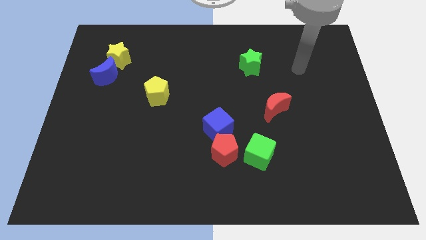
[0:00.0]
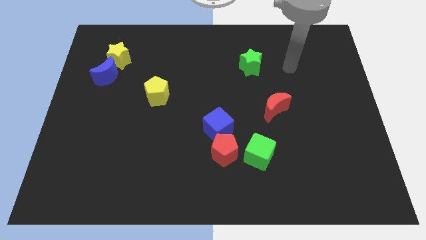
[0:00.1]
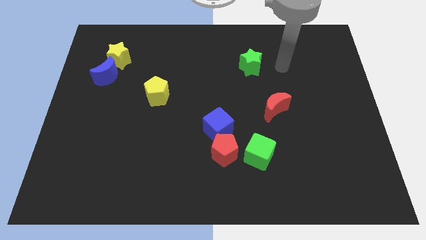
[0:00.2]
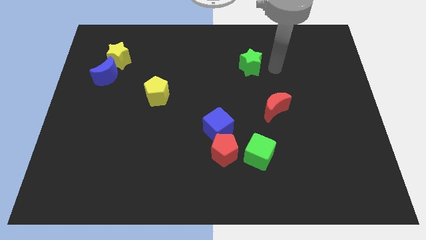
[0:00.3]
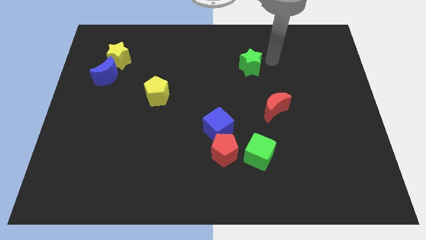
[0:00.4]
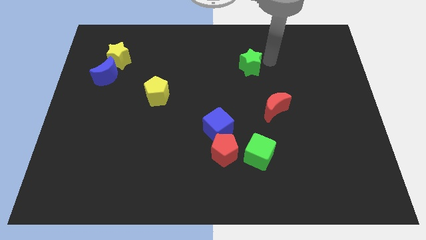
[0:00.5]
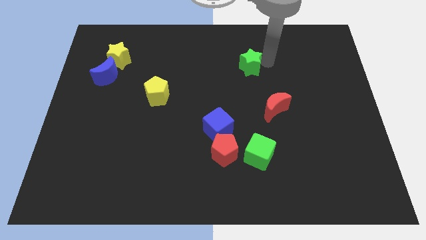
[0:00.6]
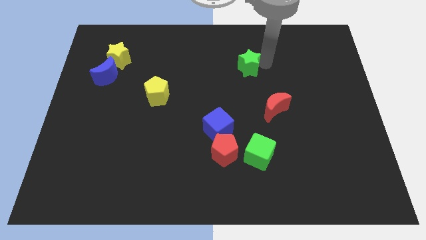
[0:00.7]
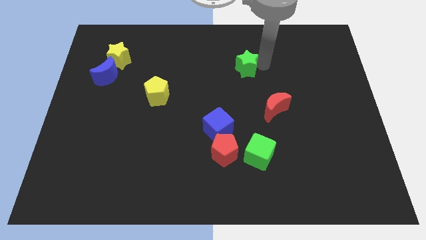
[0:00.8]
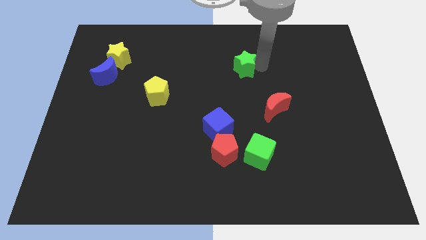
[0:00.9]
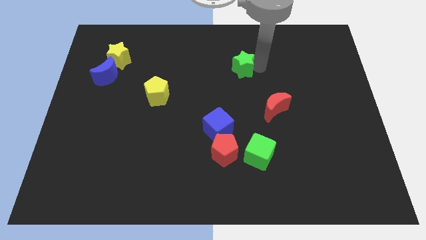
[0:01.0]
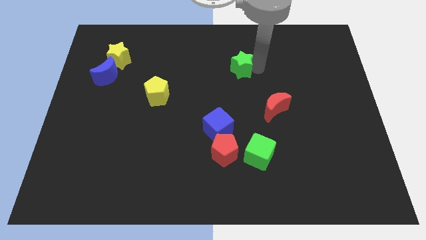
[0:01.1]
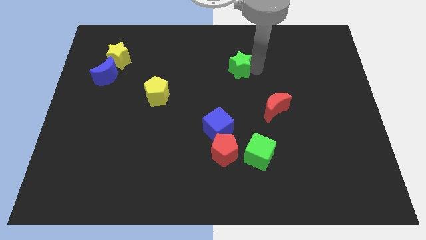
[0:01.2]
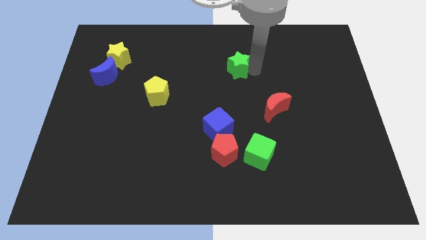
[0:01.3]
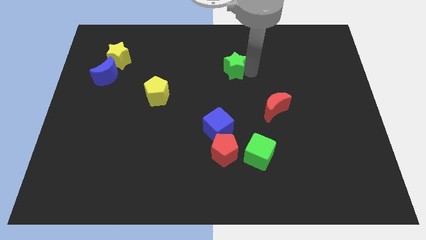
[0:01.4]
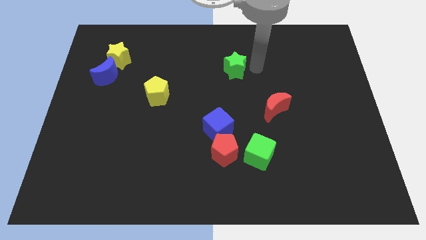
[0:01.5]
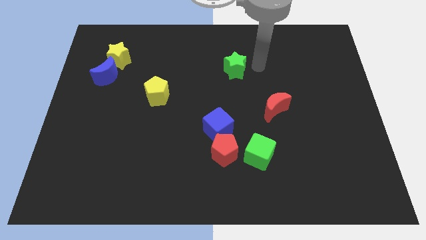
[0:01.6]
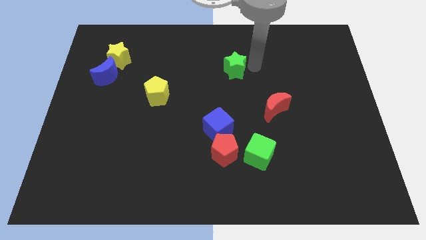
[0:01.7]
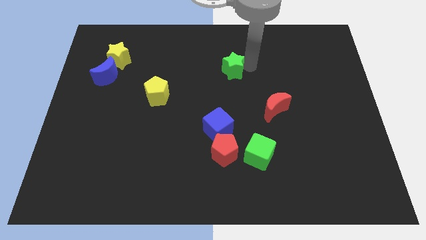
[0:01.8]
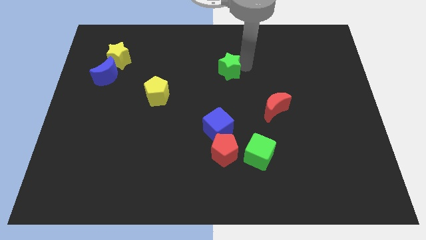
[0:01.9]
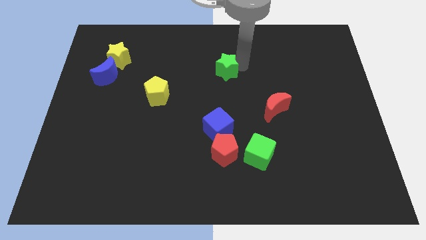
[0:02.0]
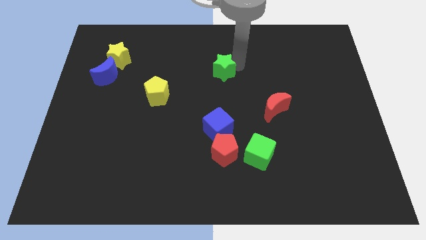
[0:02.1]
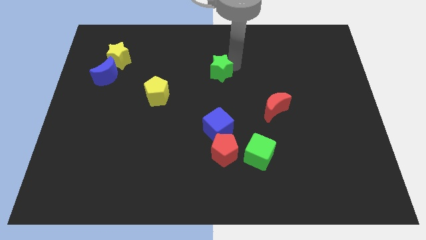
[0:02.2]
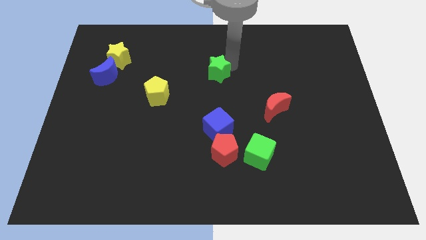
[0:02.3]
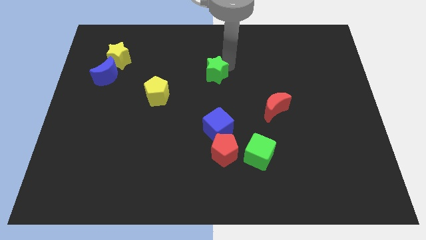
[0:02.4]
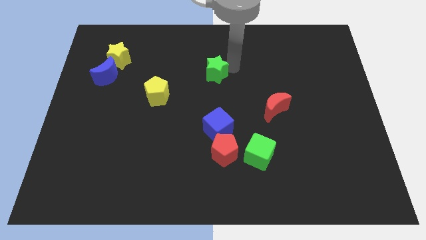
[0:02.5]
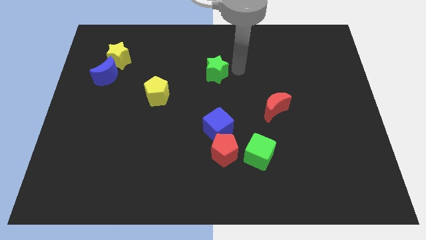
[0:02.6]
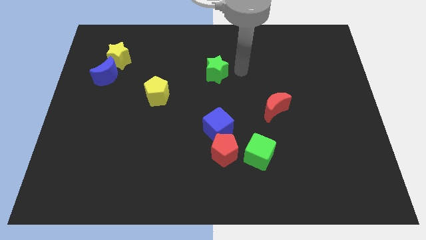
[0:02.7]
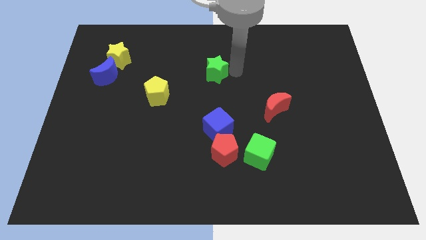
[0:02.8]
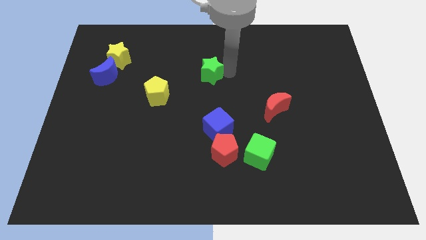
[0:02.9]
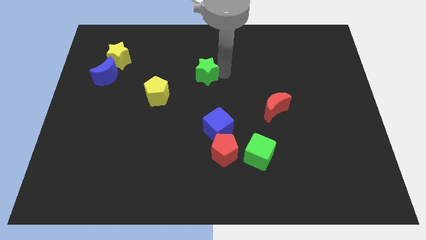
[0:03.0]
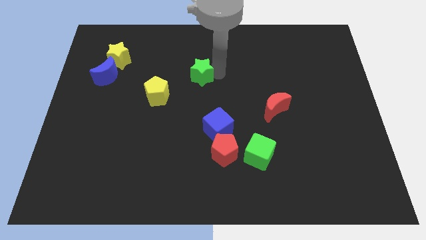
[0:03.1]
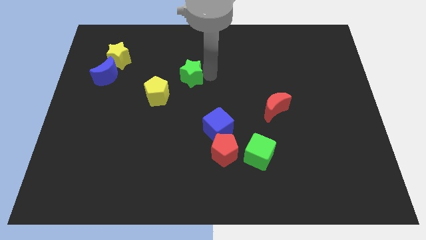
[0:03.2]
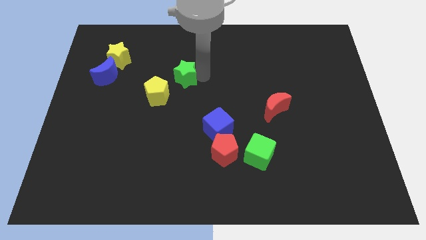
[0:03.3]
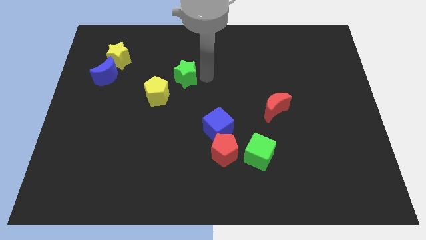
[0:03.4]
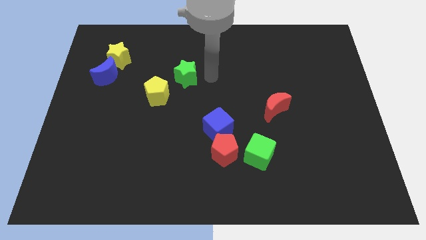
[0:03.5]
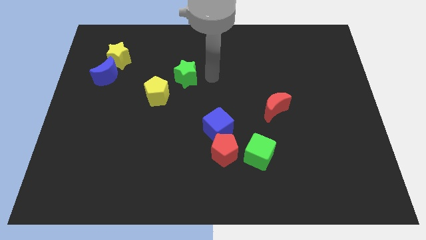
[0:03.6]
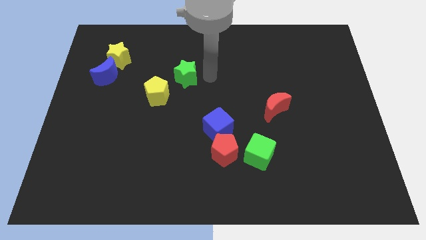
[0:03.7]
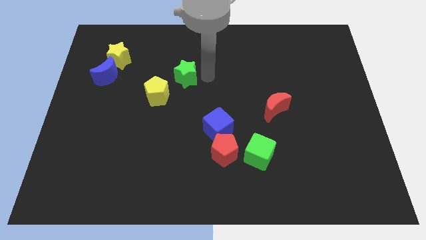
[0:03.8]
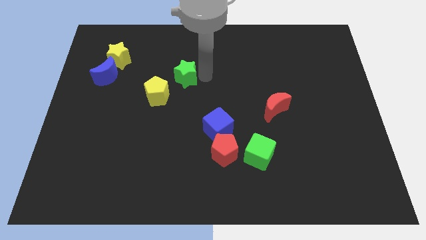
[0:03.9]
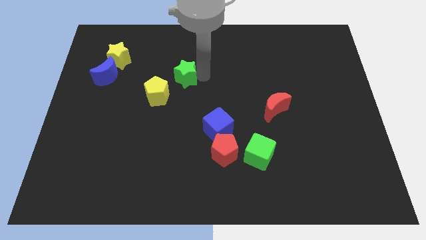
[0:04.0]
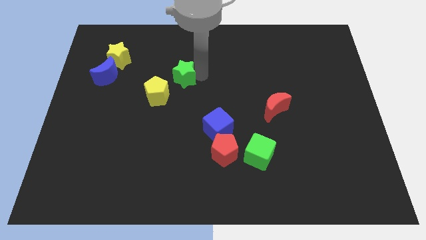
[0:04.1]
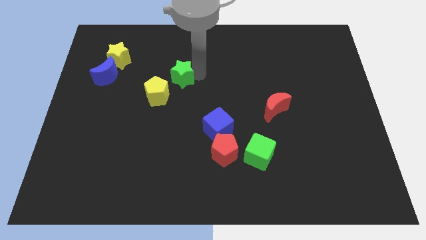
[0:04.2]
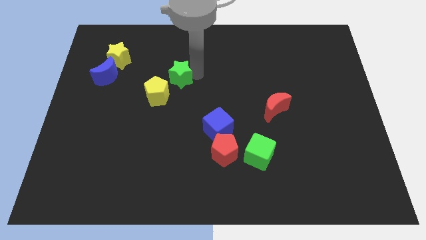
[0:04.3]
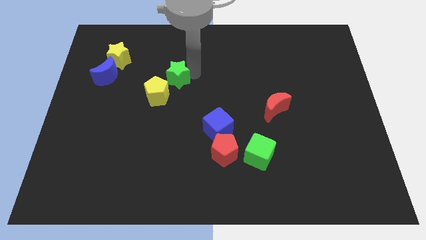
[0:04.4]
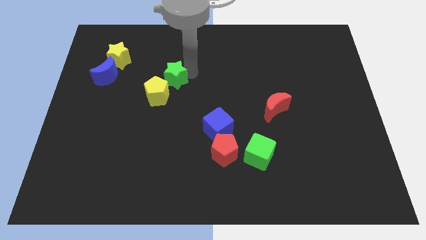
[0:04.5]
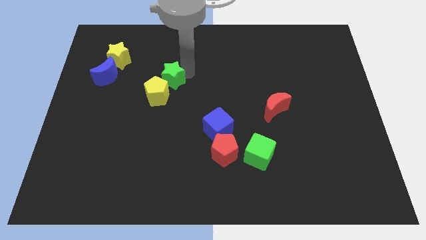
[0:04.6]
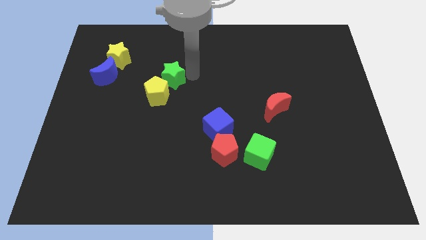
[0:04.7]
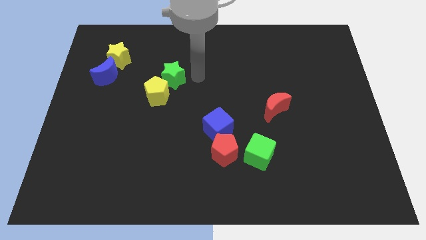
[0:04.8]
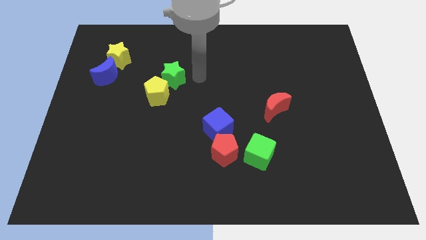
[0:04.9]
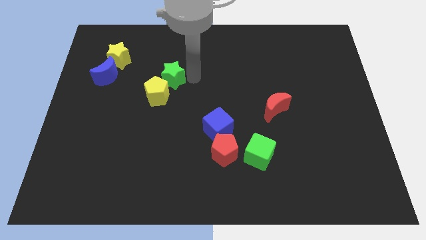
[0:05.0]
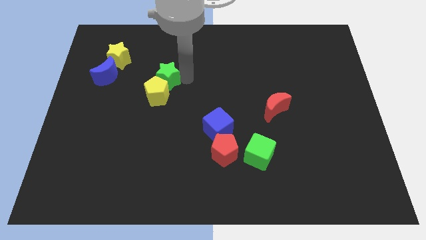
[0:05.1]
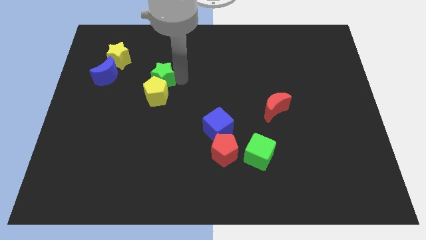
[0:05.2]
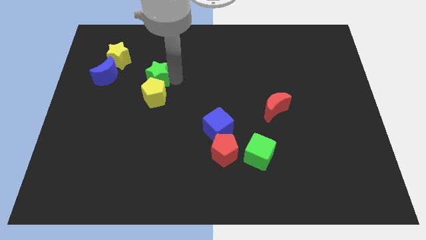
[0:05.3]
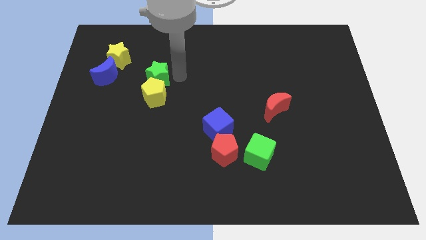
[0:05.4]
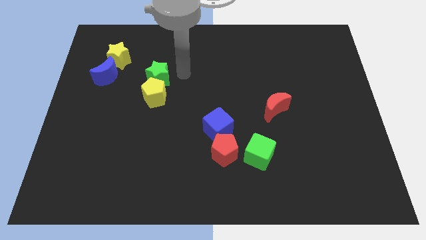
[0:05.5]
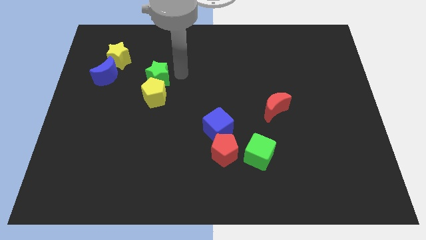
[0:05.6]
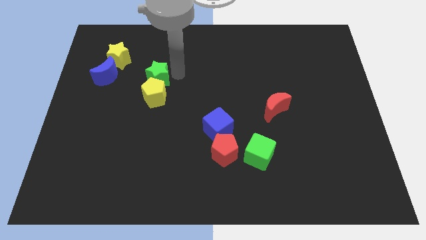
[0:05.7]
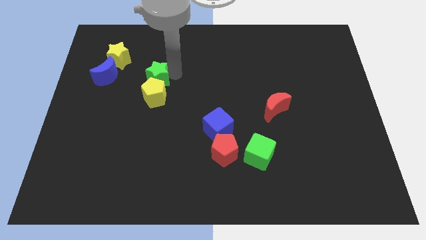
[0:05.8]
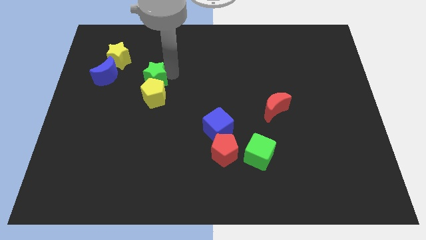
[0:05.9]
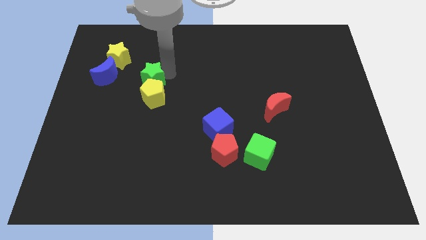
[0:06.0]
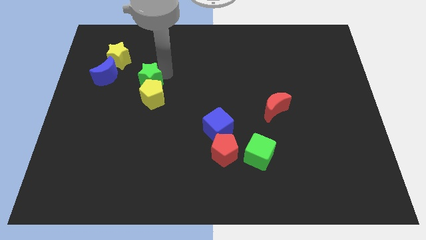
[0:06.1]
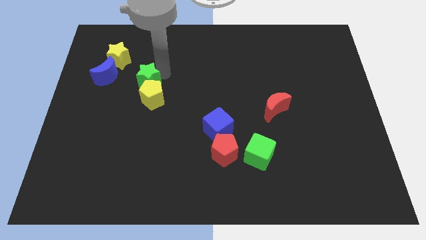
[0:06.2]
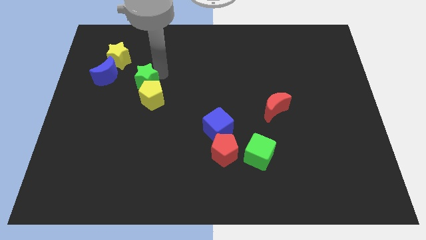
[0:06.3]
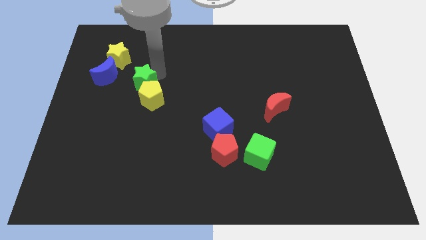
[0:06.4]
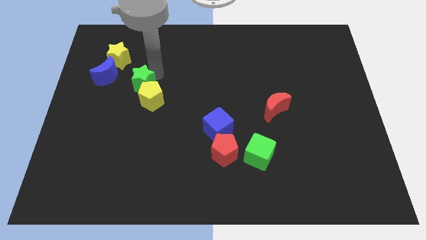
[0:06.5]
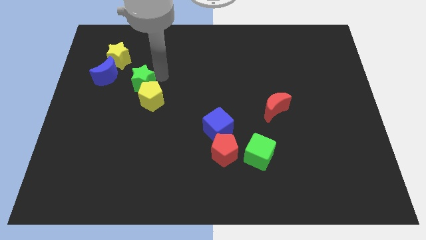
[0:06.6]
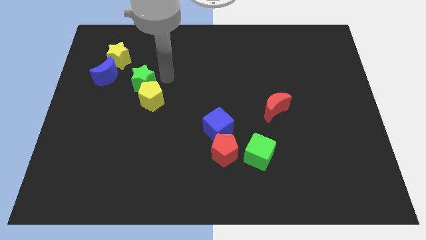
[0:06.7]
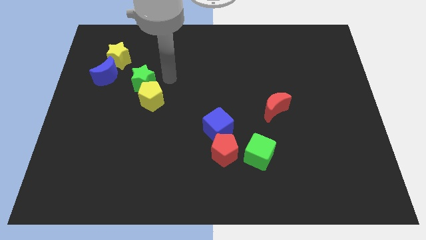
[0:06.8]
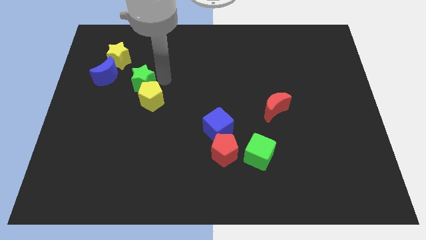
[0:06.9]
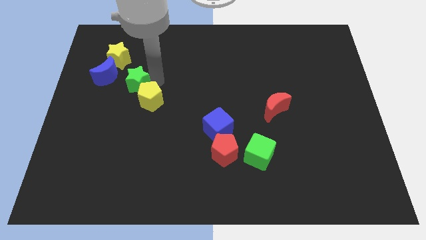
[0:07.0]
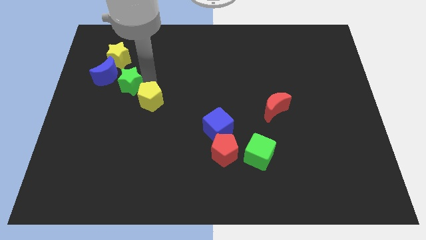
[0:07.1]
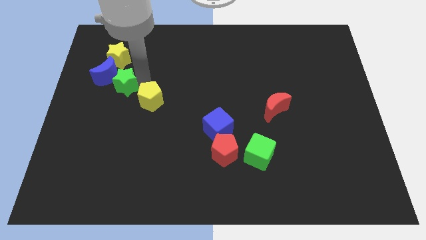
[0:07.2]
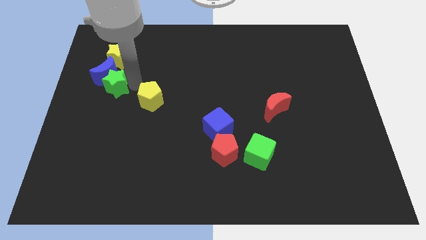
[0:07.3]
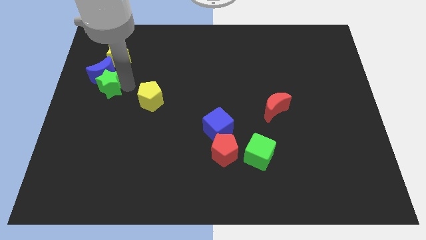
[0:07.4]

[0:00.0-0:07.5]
push the green star to the left side
